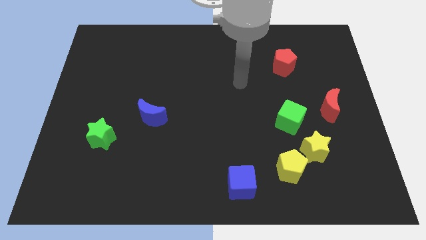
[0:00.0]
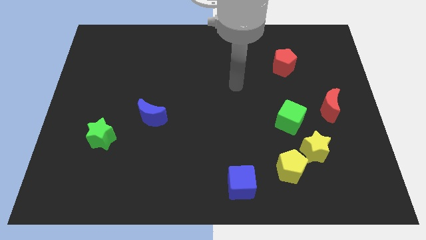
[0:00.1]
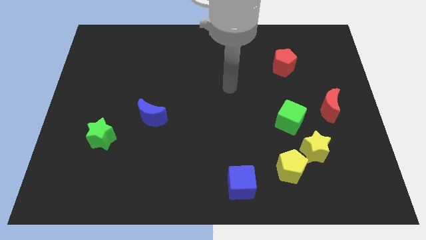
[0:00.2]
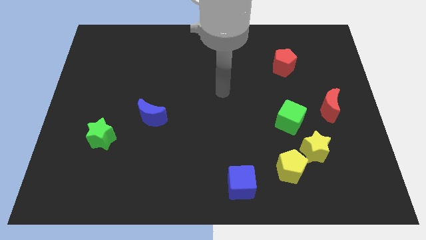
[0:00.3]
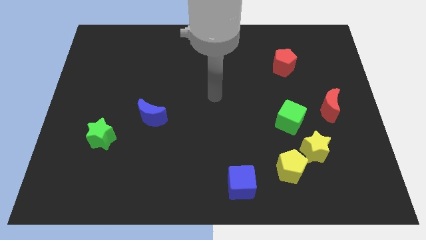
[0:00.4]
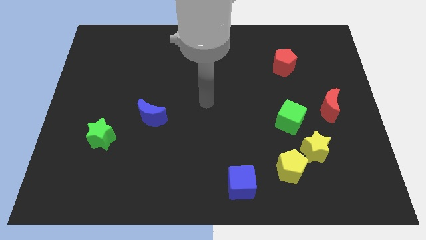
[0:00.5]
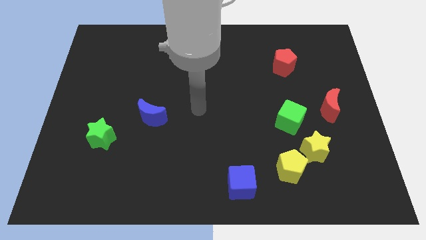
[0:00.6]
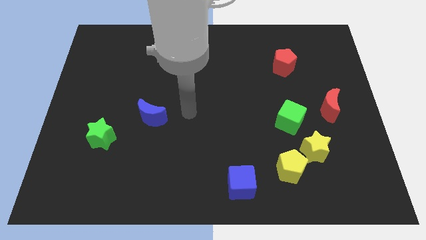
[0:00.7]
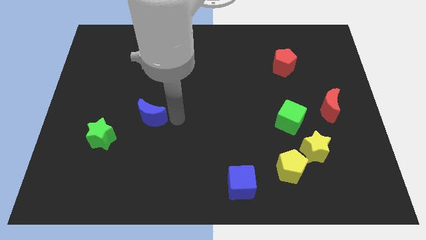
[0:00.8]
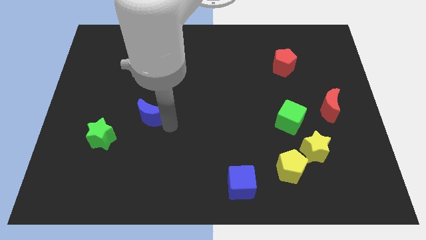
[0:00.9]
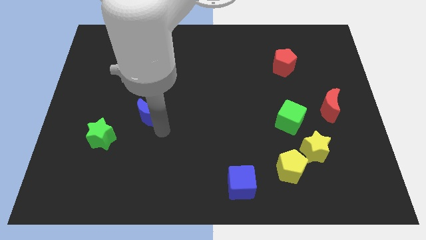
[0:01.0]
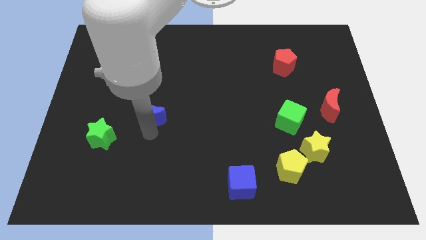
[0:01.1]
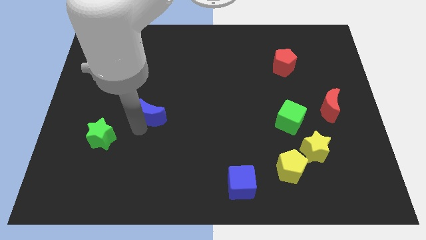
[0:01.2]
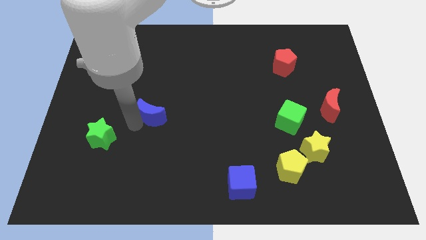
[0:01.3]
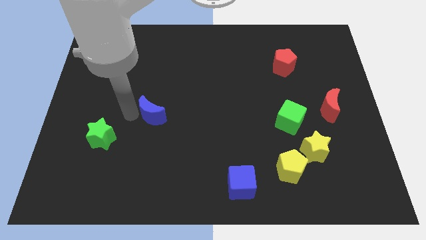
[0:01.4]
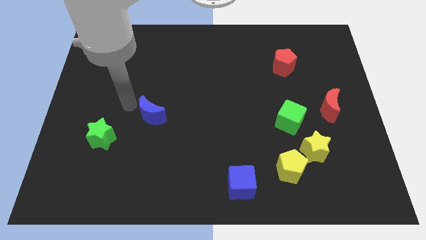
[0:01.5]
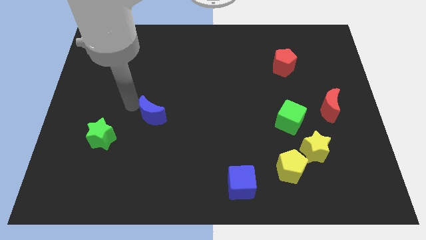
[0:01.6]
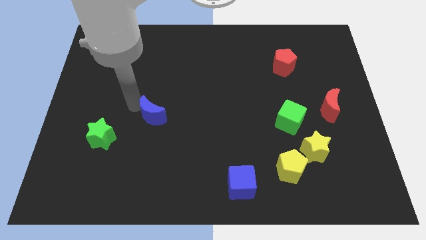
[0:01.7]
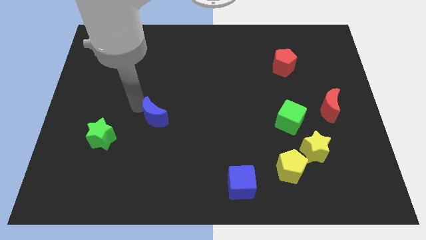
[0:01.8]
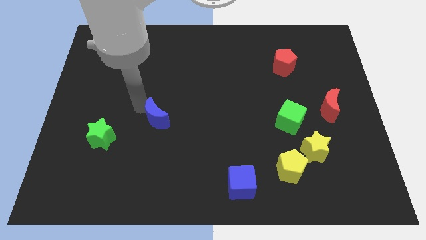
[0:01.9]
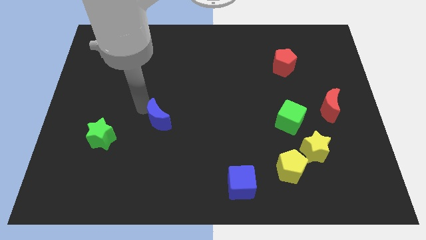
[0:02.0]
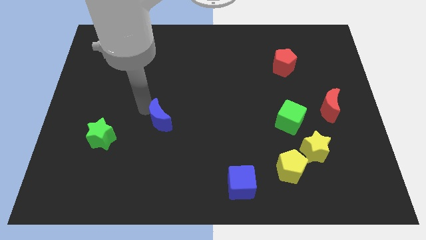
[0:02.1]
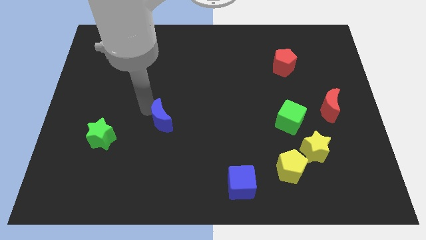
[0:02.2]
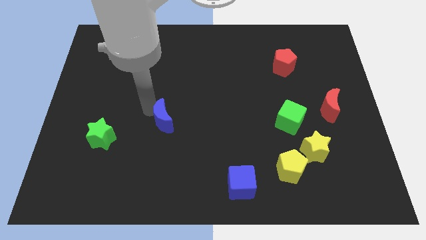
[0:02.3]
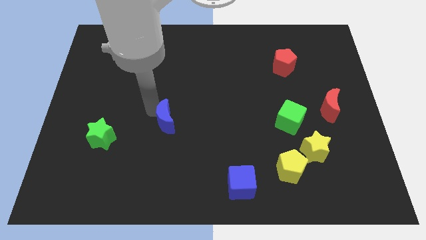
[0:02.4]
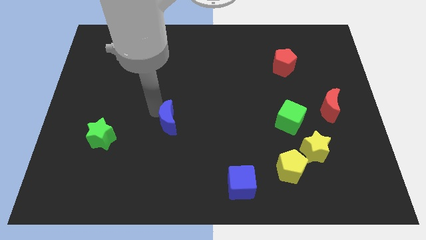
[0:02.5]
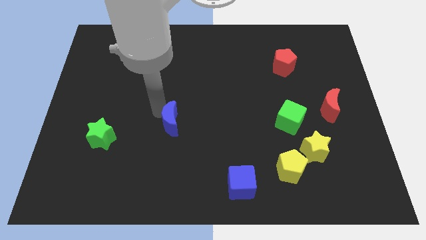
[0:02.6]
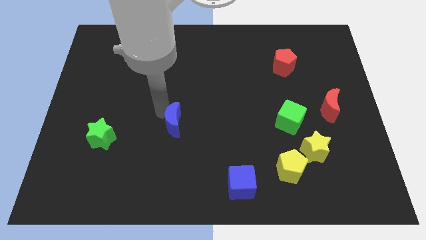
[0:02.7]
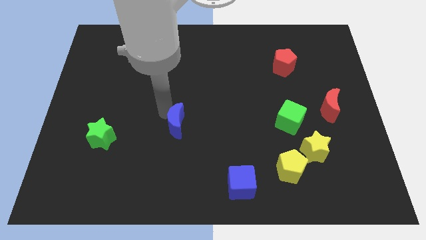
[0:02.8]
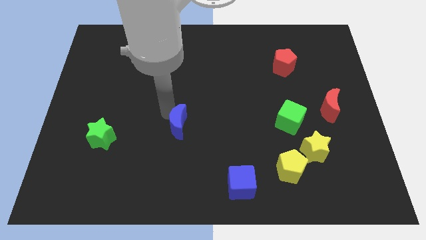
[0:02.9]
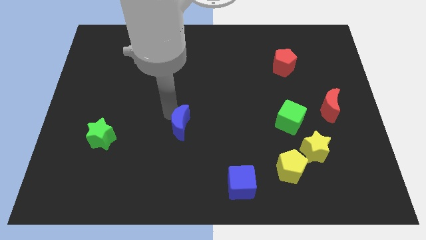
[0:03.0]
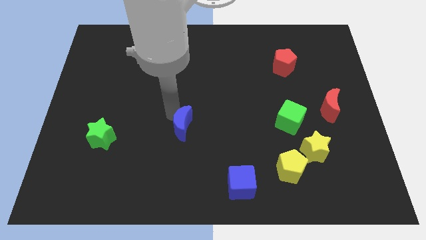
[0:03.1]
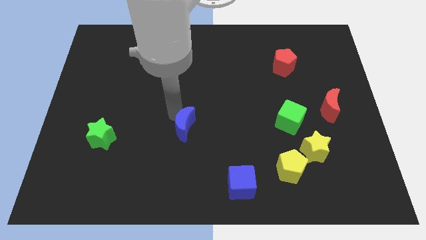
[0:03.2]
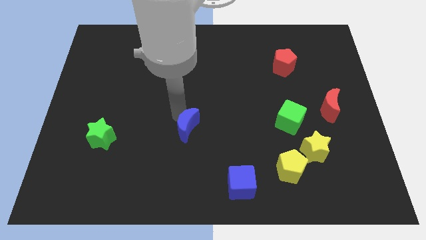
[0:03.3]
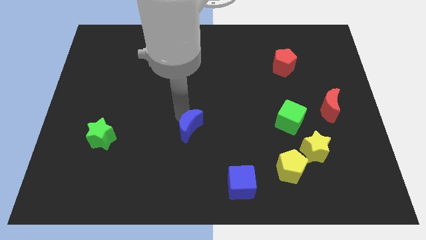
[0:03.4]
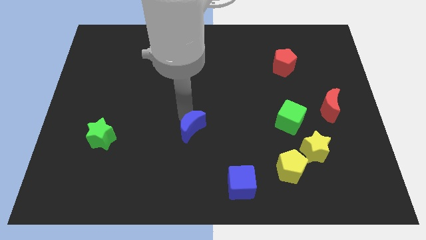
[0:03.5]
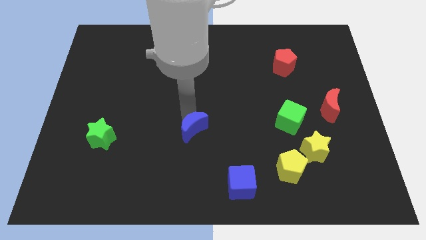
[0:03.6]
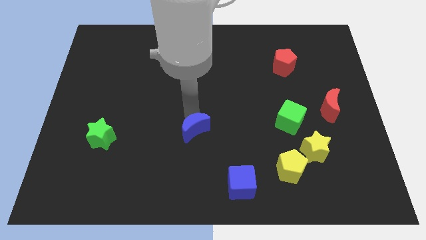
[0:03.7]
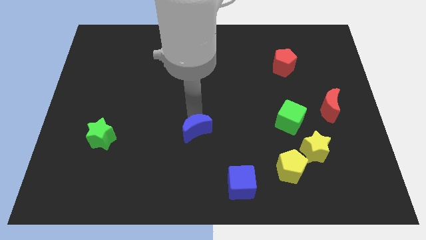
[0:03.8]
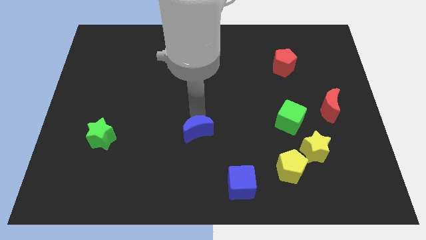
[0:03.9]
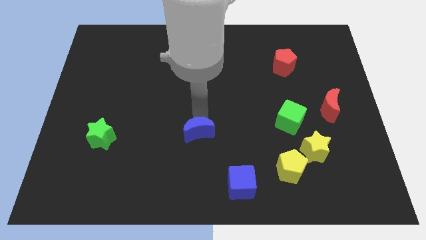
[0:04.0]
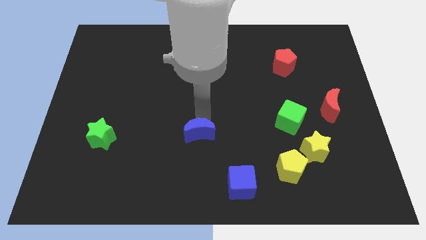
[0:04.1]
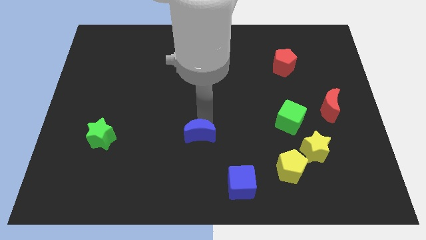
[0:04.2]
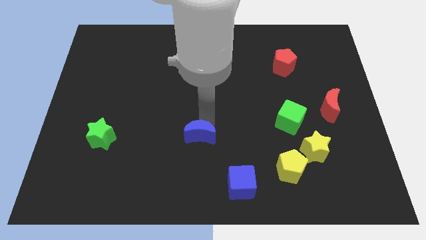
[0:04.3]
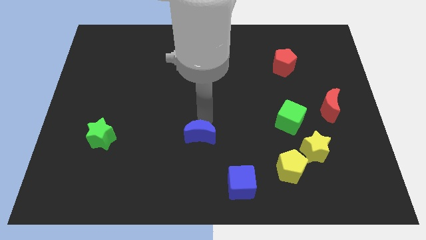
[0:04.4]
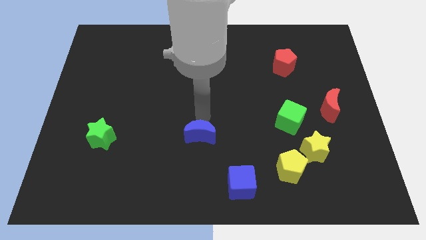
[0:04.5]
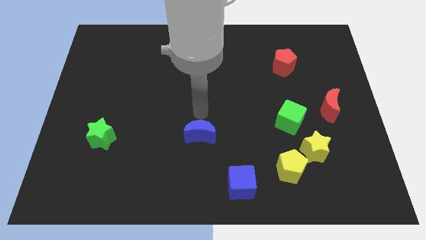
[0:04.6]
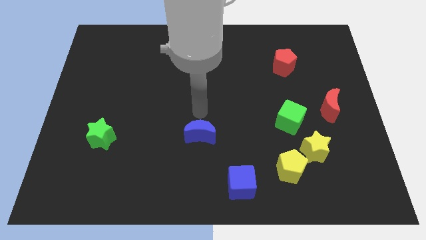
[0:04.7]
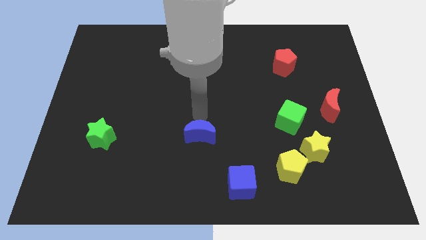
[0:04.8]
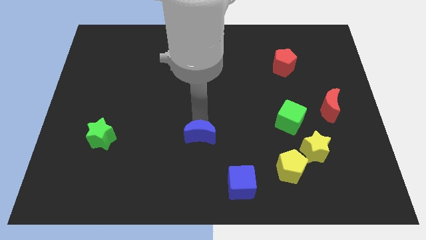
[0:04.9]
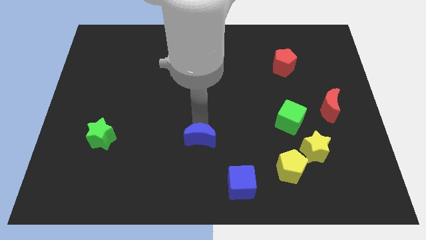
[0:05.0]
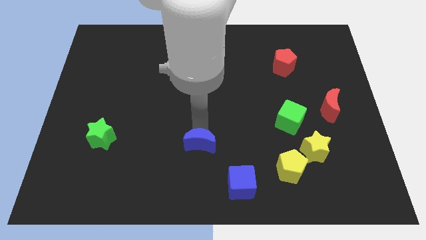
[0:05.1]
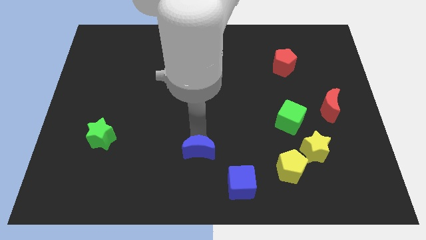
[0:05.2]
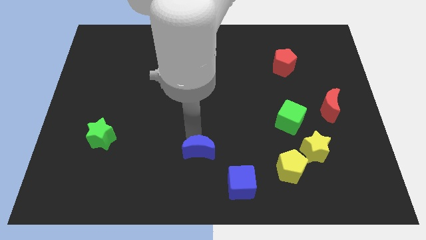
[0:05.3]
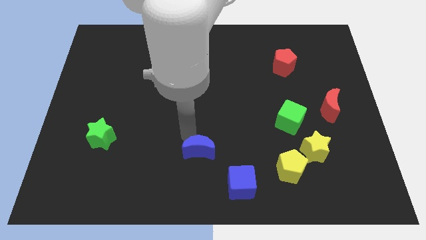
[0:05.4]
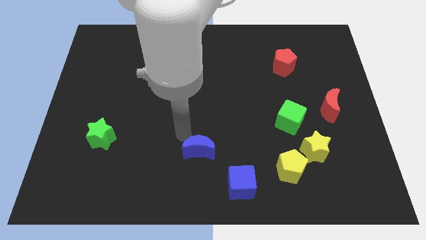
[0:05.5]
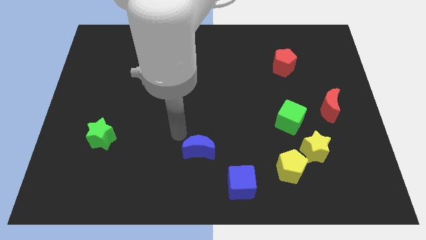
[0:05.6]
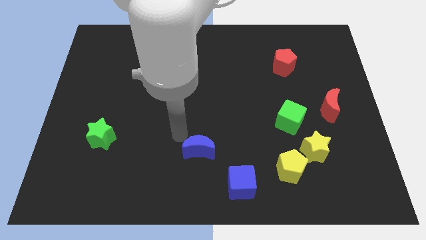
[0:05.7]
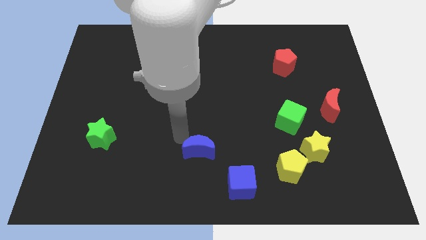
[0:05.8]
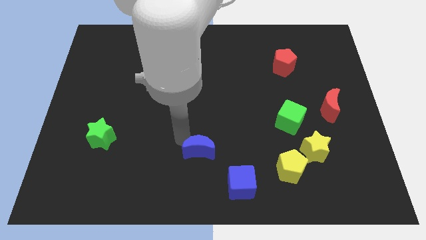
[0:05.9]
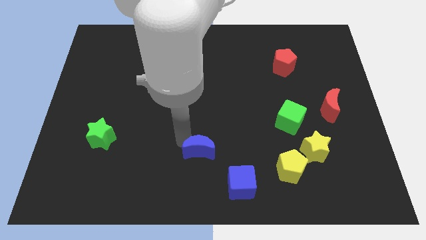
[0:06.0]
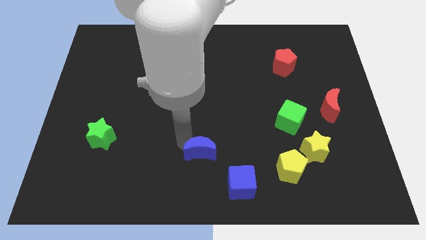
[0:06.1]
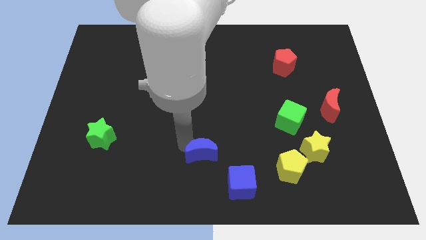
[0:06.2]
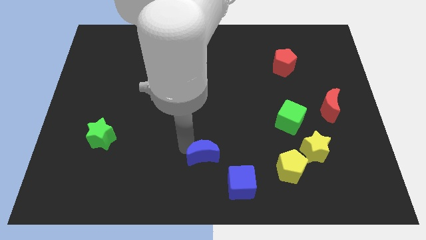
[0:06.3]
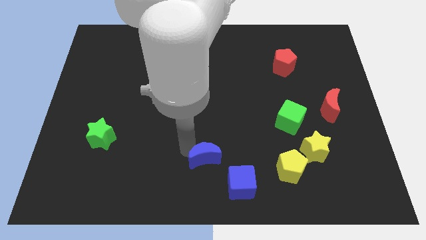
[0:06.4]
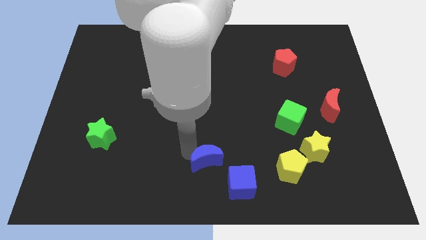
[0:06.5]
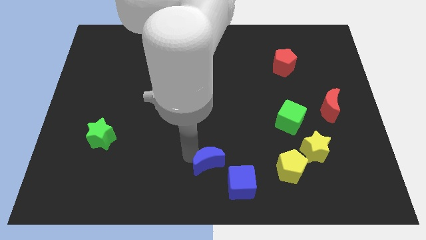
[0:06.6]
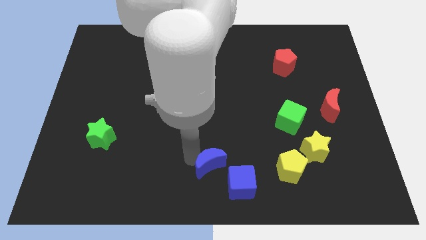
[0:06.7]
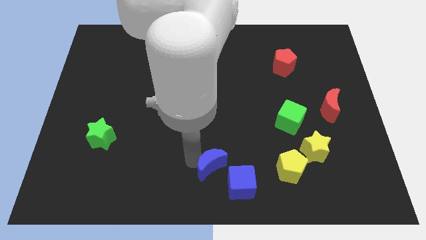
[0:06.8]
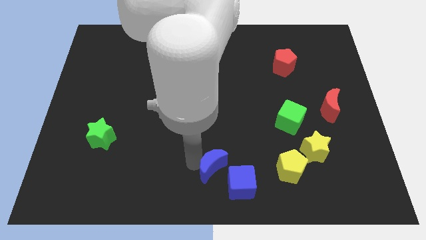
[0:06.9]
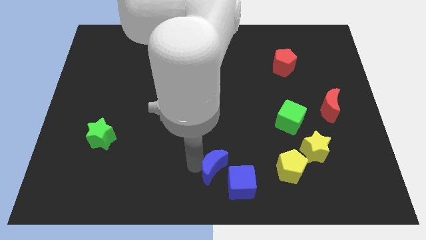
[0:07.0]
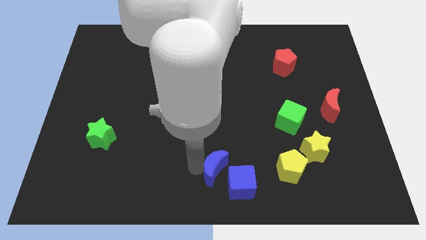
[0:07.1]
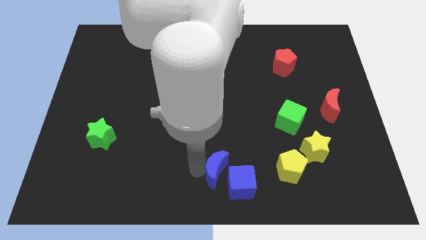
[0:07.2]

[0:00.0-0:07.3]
put the blue moon towards the blue cube
